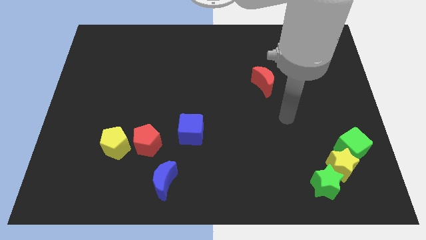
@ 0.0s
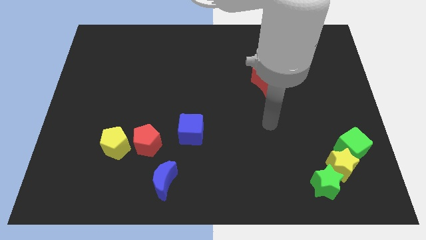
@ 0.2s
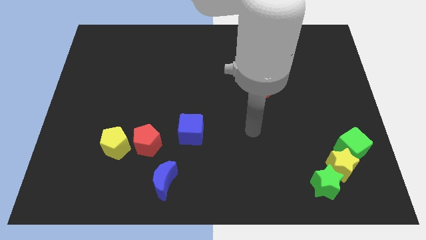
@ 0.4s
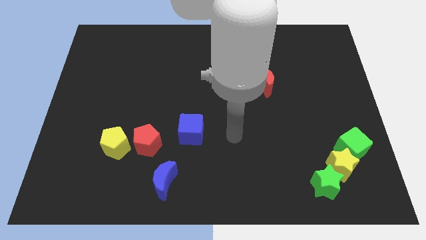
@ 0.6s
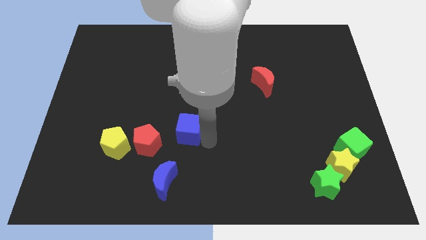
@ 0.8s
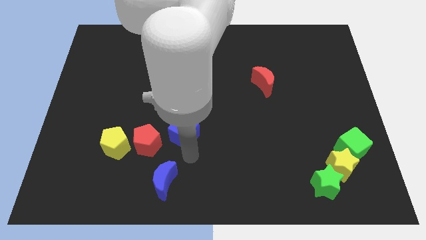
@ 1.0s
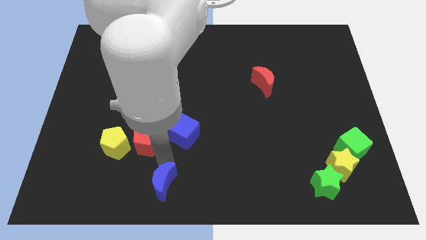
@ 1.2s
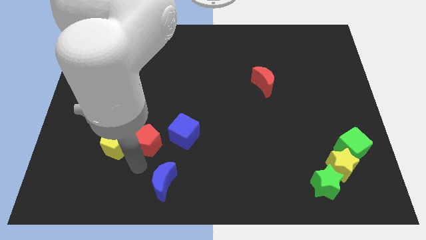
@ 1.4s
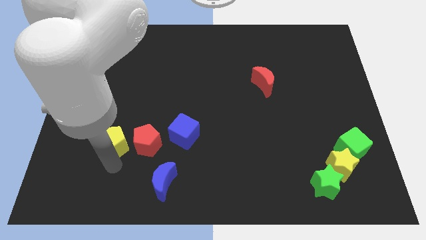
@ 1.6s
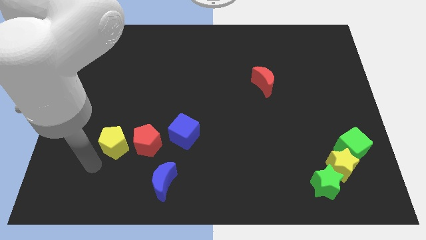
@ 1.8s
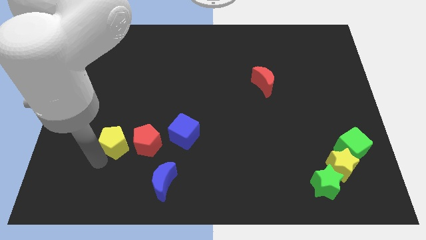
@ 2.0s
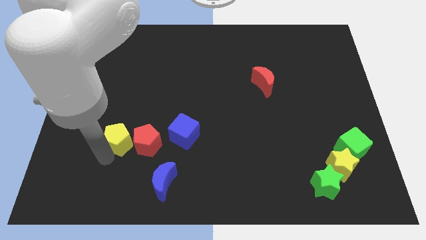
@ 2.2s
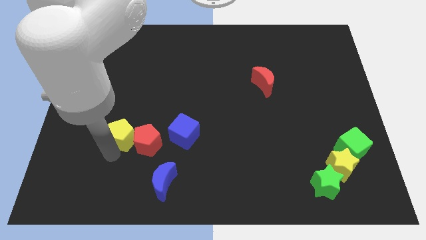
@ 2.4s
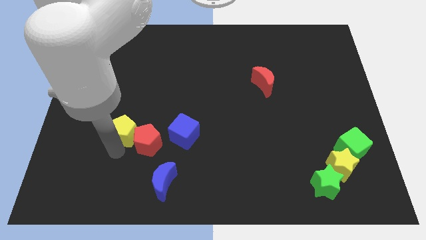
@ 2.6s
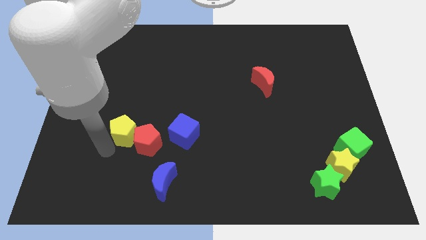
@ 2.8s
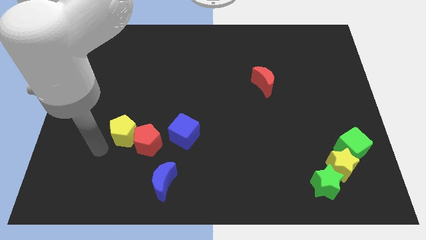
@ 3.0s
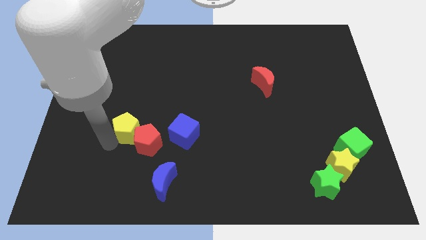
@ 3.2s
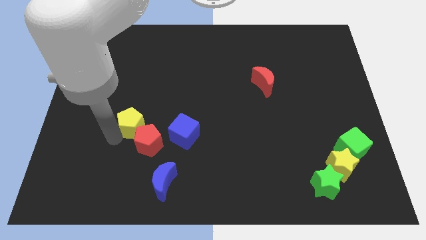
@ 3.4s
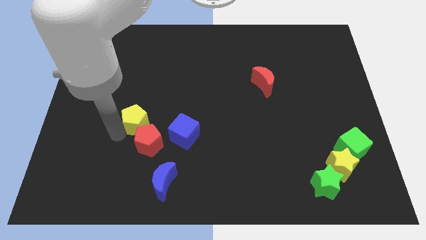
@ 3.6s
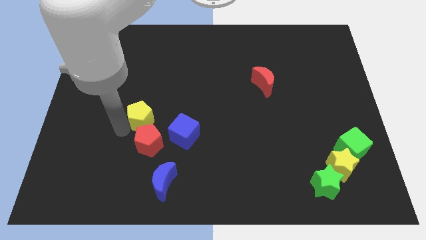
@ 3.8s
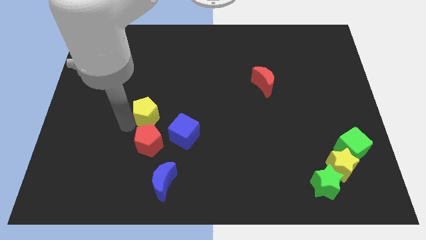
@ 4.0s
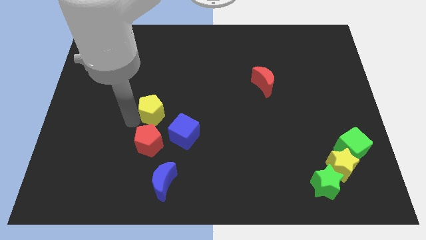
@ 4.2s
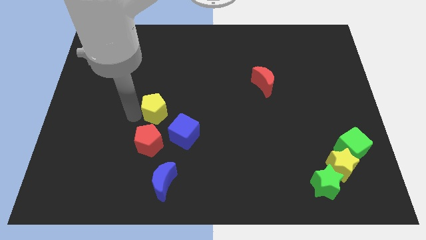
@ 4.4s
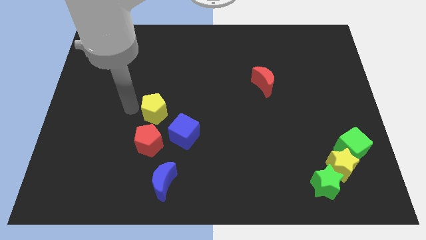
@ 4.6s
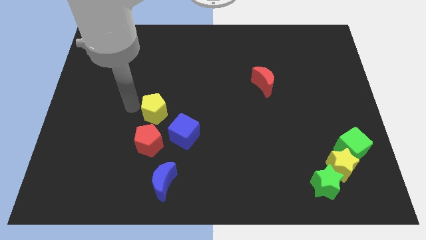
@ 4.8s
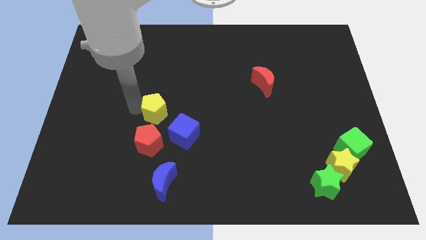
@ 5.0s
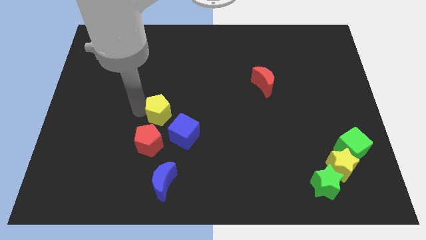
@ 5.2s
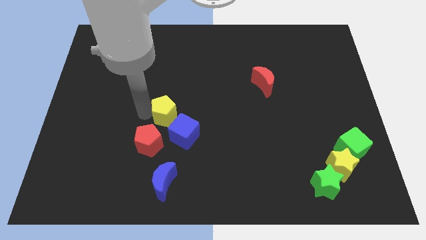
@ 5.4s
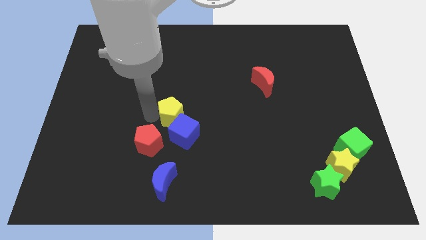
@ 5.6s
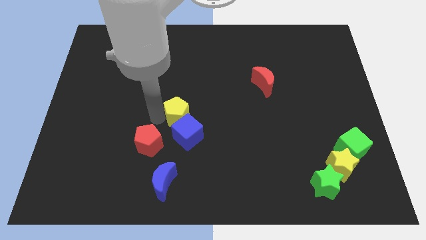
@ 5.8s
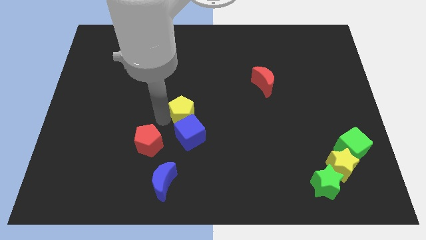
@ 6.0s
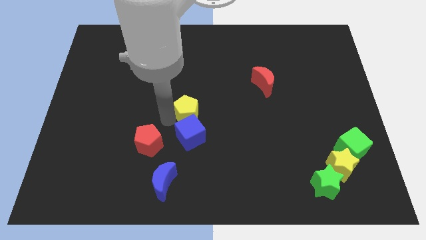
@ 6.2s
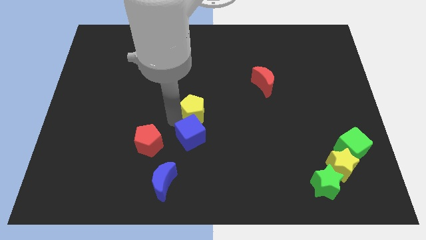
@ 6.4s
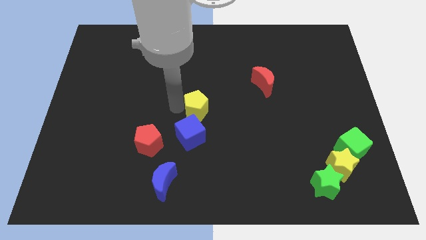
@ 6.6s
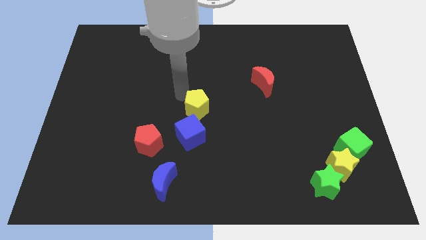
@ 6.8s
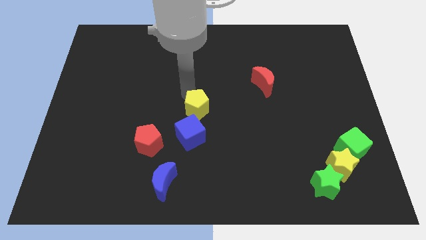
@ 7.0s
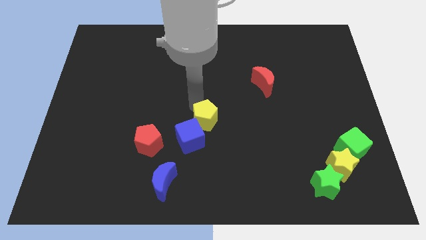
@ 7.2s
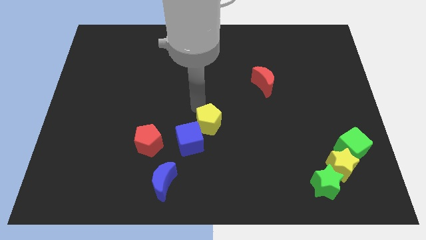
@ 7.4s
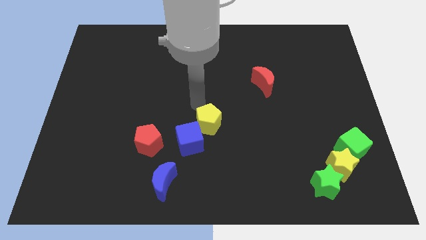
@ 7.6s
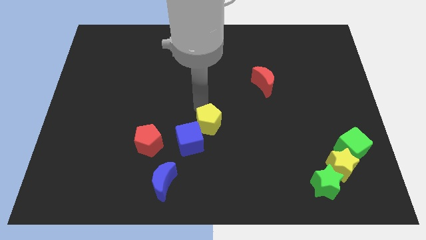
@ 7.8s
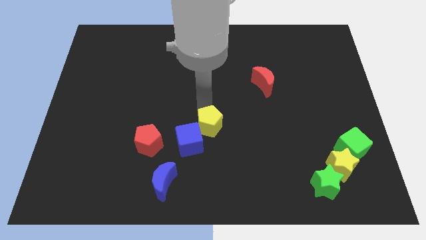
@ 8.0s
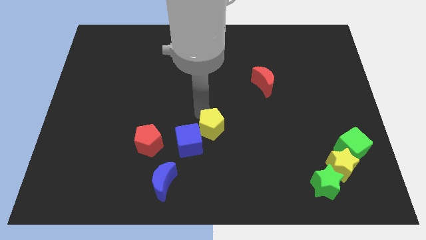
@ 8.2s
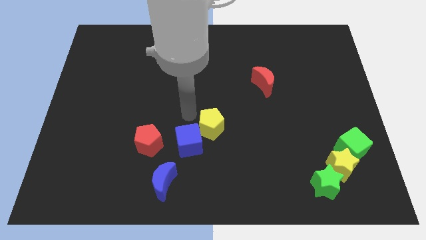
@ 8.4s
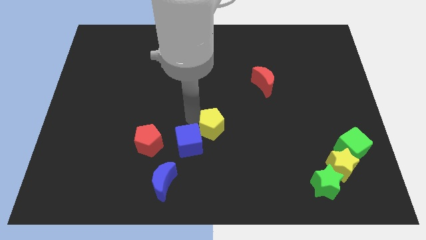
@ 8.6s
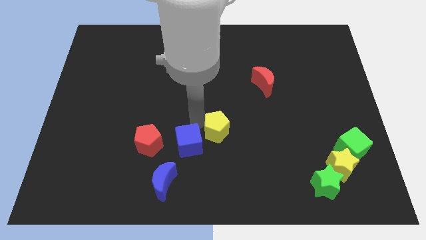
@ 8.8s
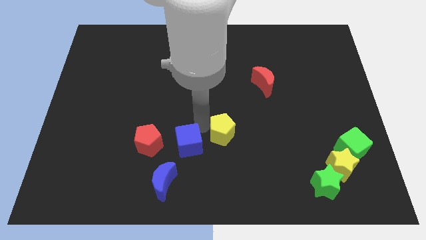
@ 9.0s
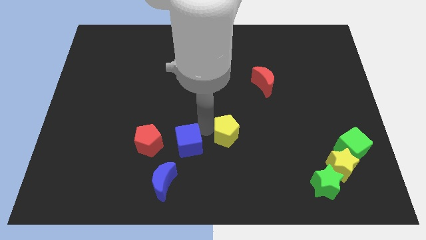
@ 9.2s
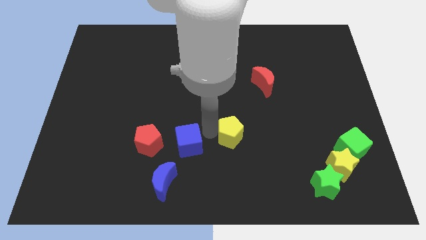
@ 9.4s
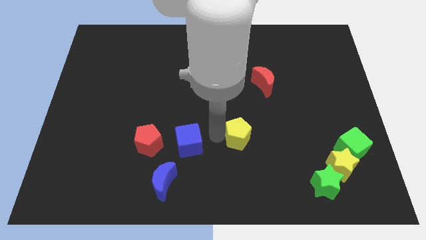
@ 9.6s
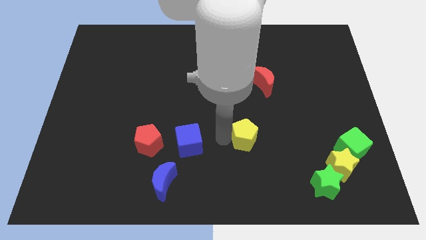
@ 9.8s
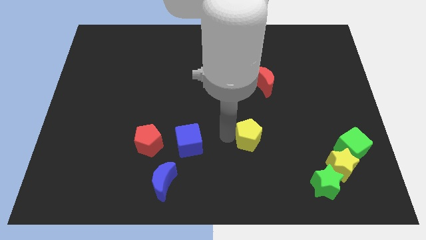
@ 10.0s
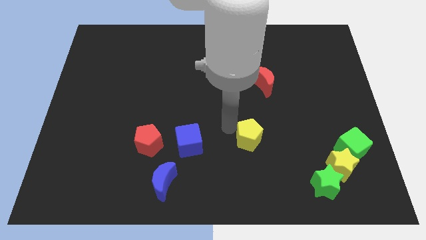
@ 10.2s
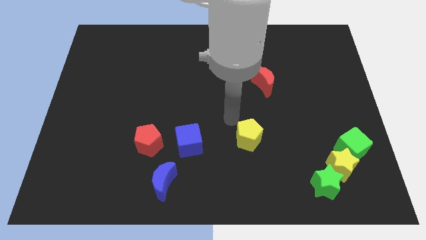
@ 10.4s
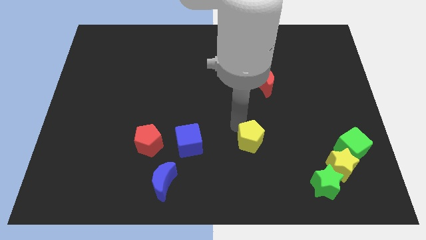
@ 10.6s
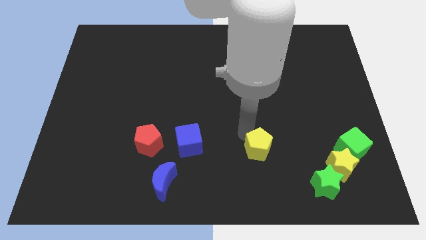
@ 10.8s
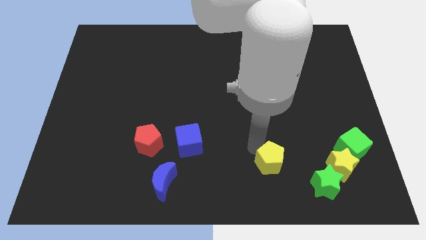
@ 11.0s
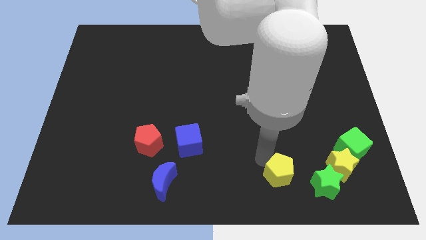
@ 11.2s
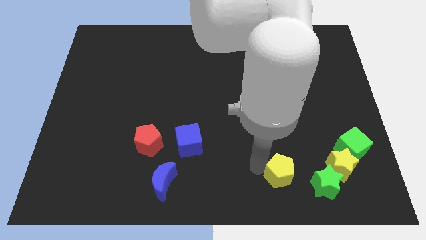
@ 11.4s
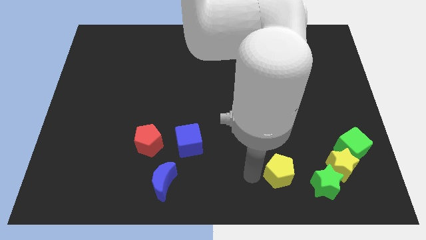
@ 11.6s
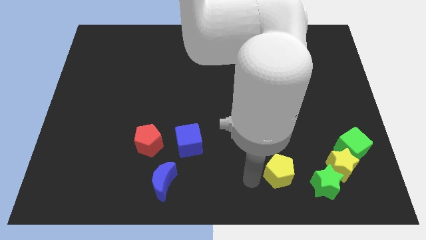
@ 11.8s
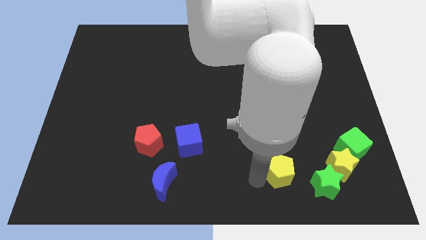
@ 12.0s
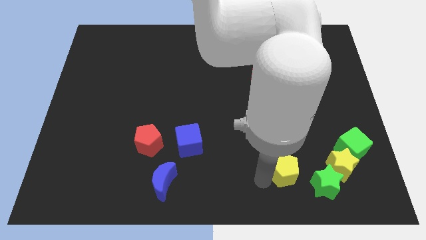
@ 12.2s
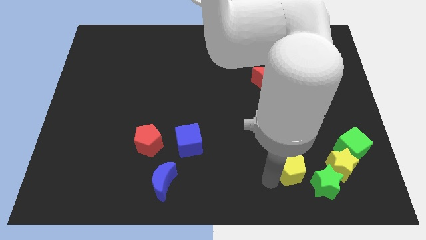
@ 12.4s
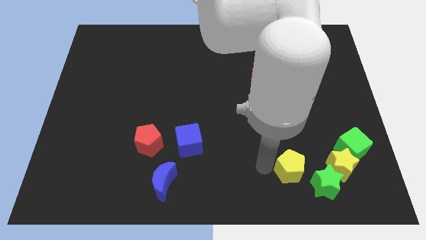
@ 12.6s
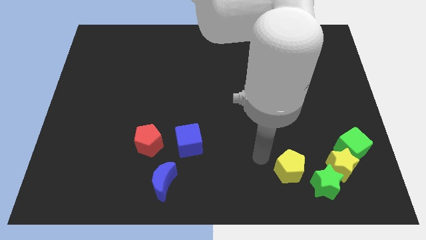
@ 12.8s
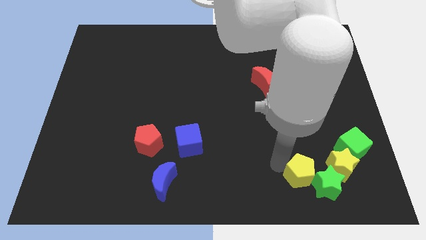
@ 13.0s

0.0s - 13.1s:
move the yellow pentagon next to the green star

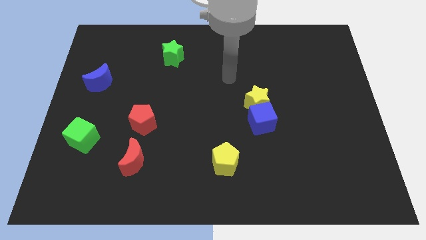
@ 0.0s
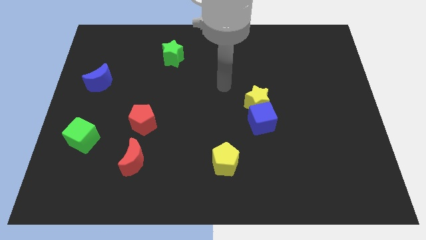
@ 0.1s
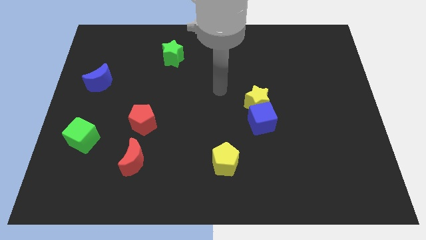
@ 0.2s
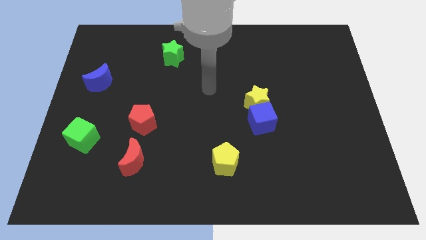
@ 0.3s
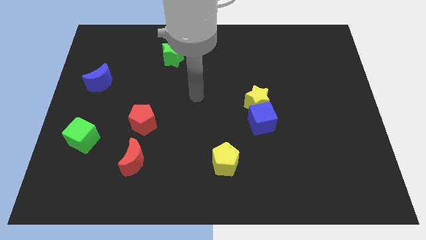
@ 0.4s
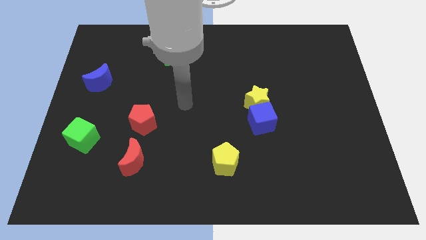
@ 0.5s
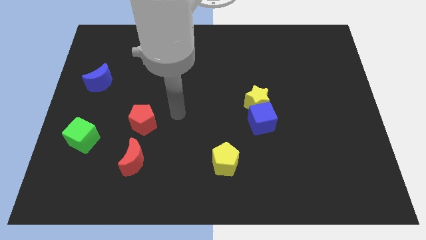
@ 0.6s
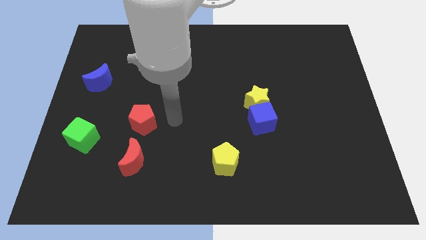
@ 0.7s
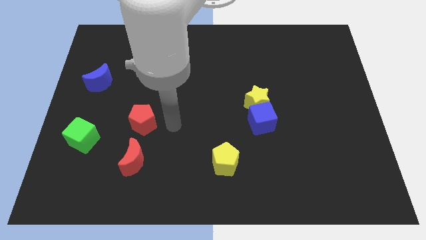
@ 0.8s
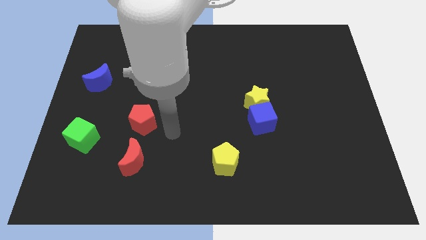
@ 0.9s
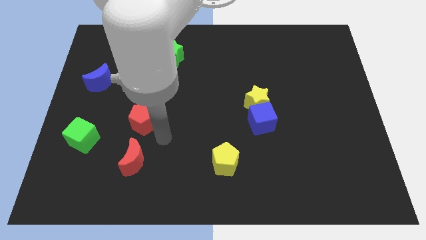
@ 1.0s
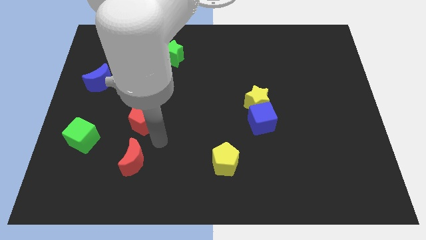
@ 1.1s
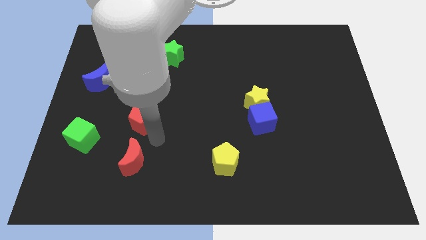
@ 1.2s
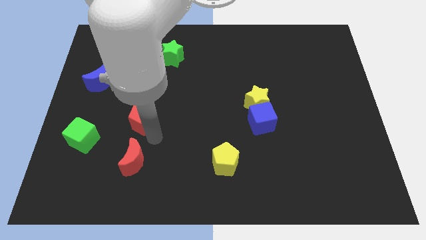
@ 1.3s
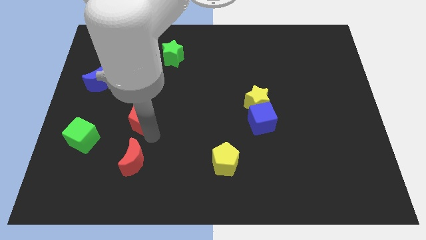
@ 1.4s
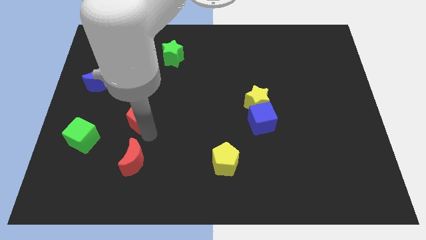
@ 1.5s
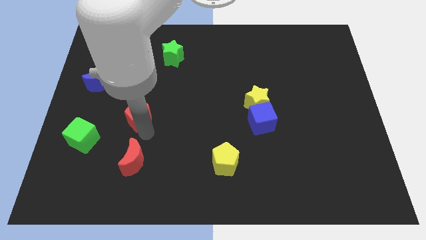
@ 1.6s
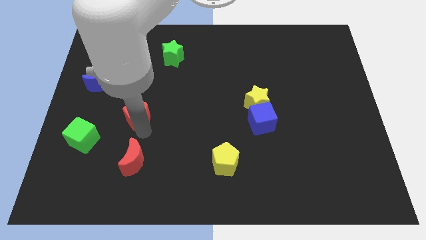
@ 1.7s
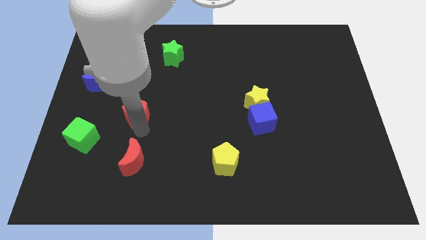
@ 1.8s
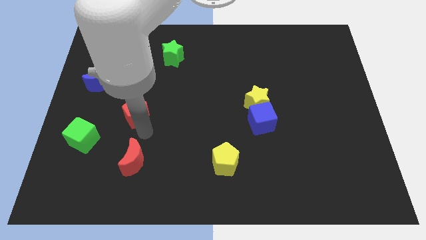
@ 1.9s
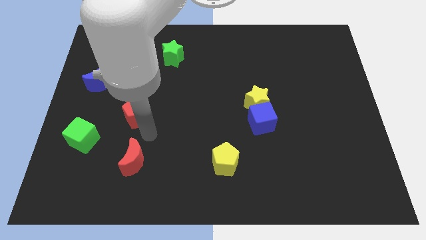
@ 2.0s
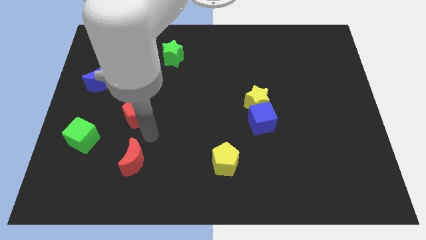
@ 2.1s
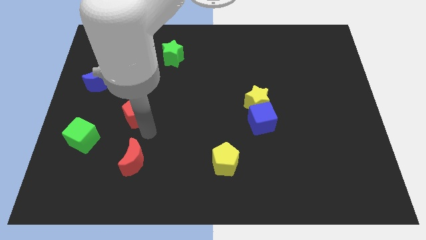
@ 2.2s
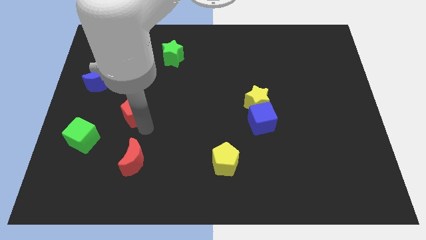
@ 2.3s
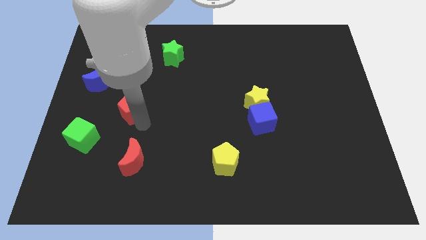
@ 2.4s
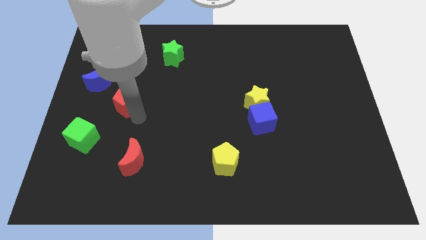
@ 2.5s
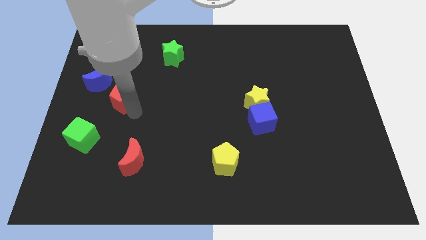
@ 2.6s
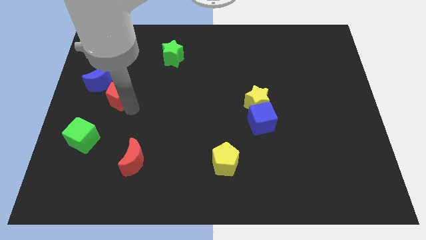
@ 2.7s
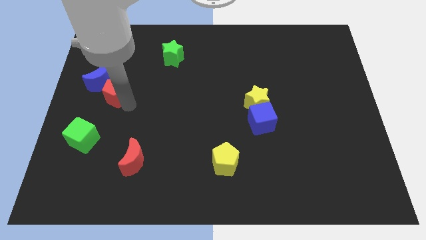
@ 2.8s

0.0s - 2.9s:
put the red pentagon to the blue moon
